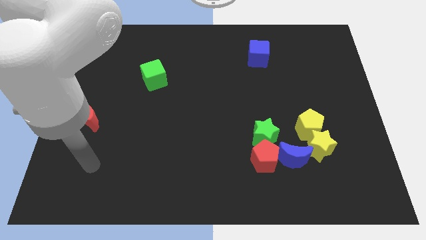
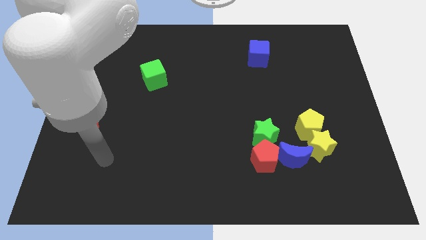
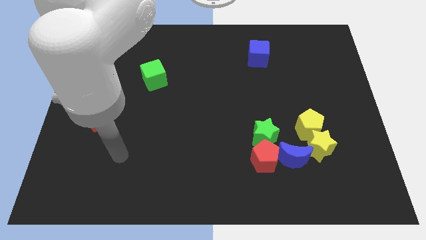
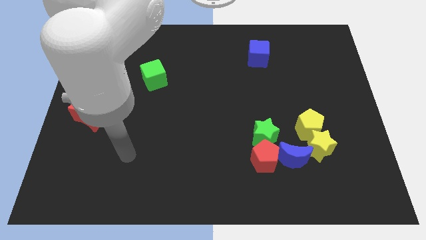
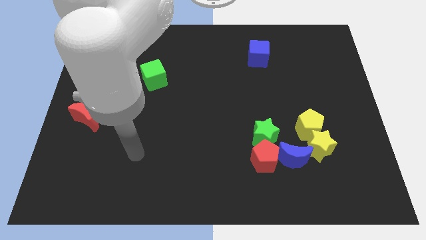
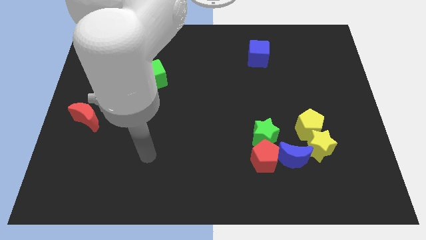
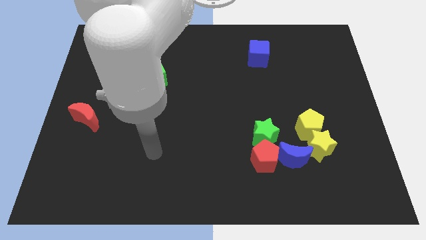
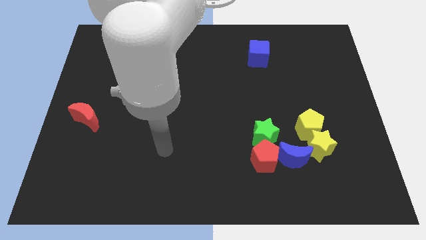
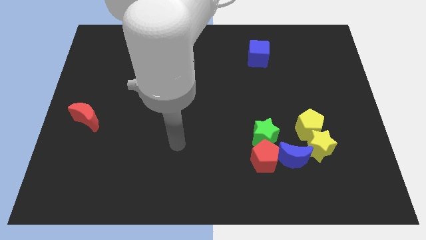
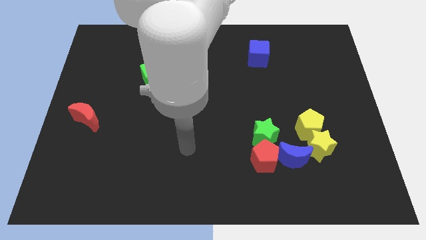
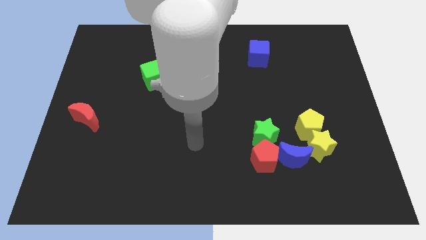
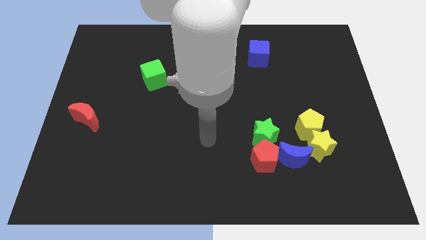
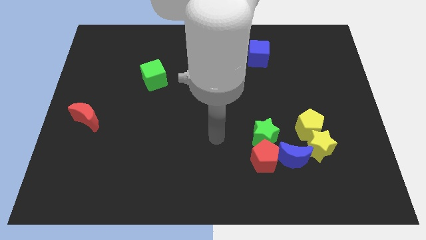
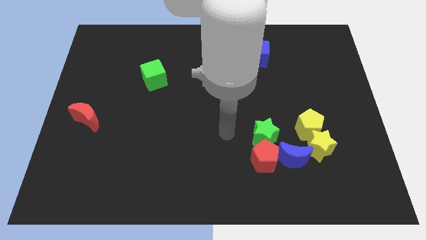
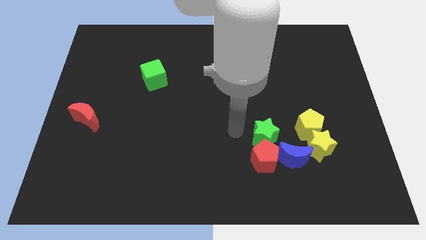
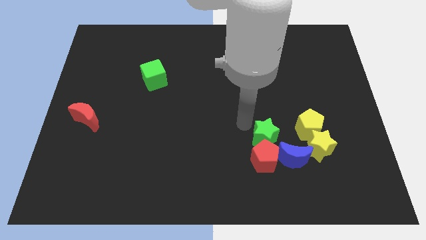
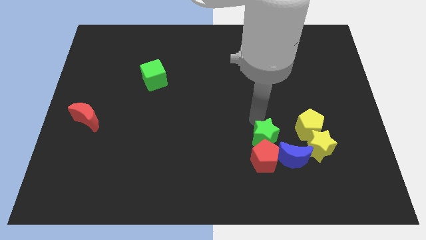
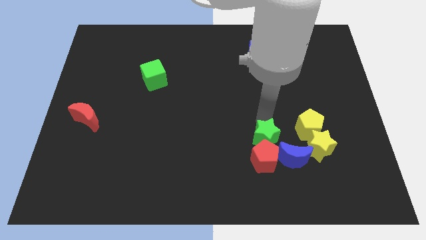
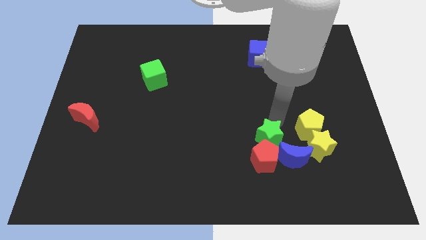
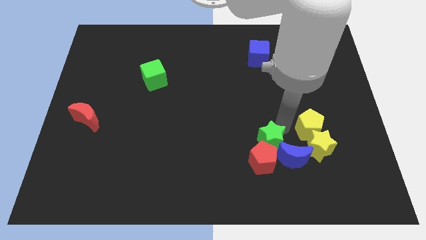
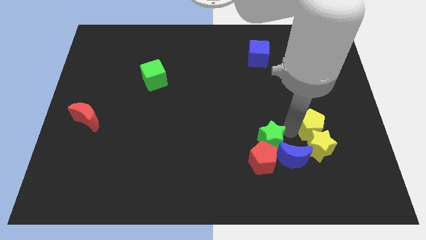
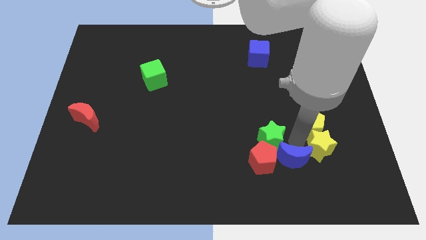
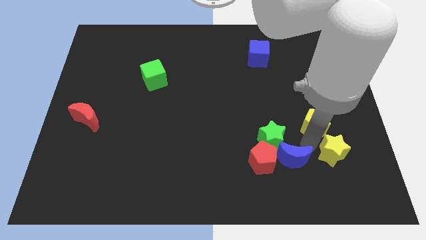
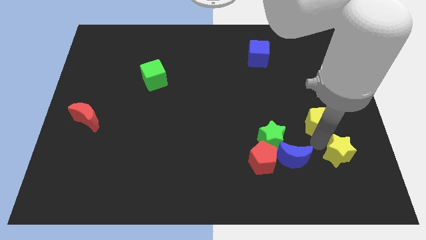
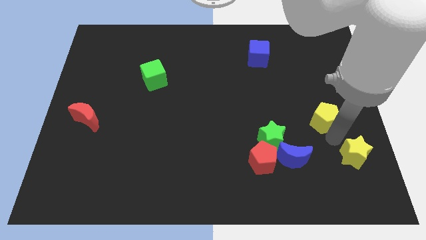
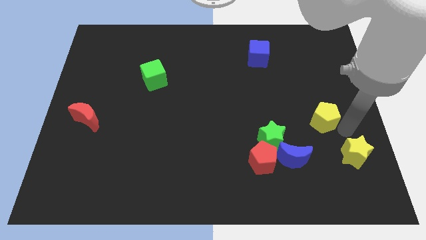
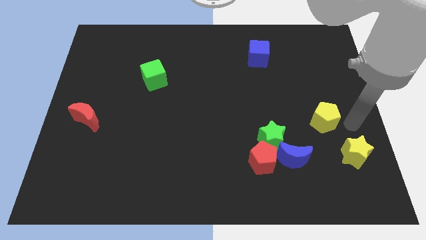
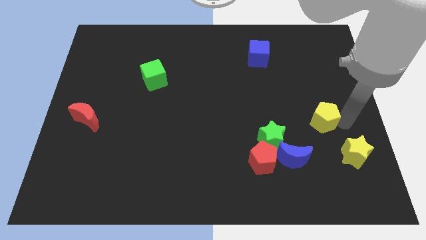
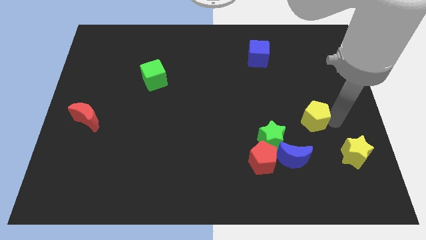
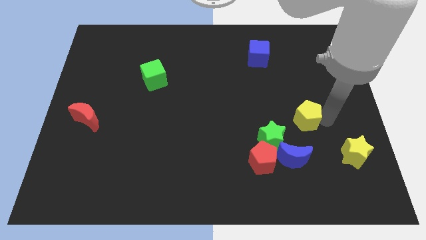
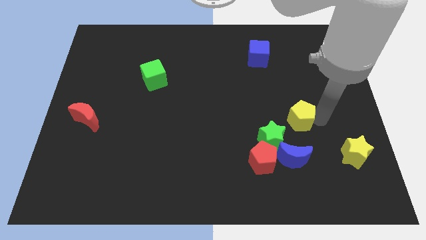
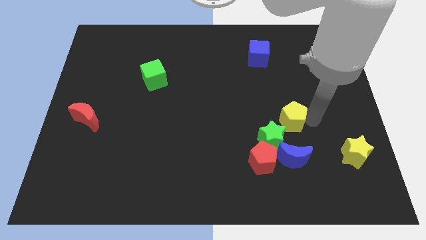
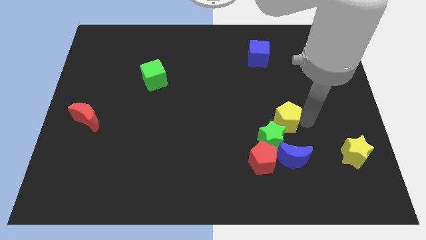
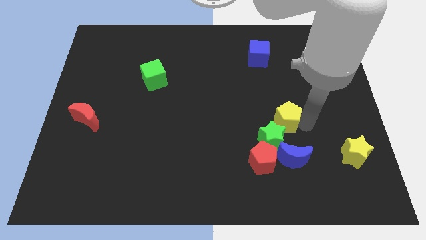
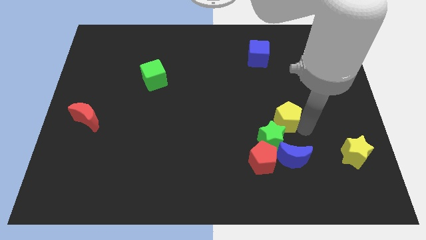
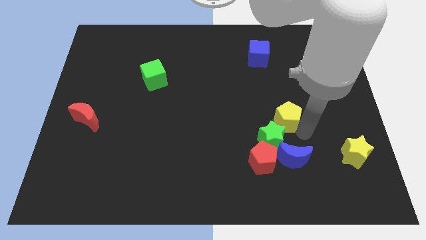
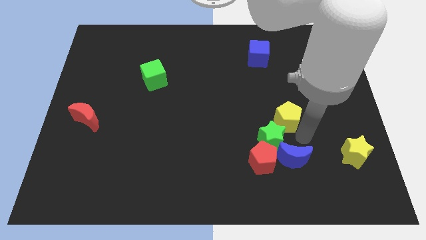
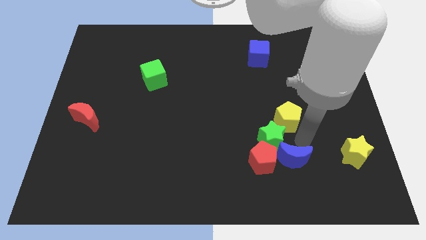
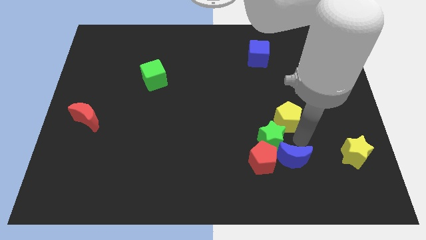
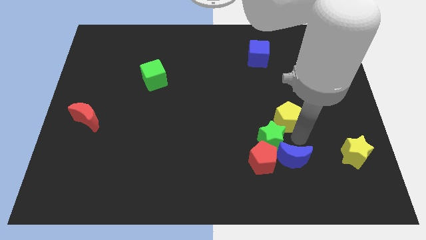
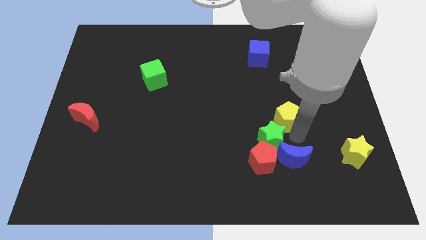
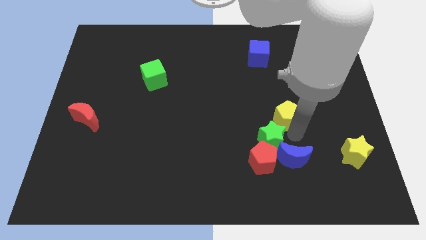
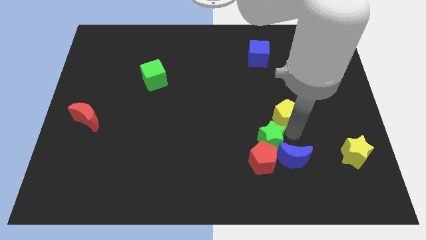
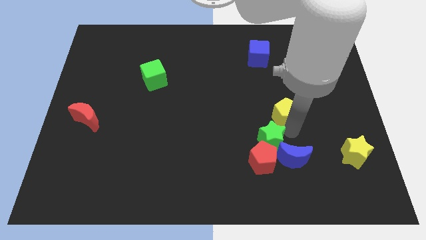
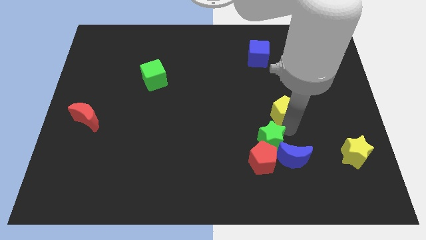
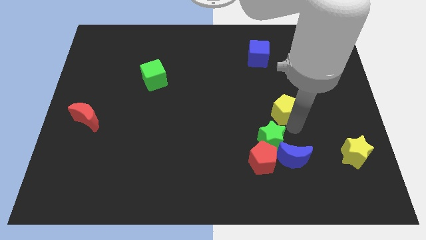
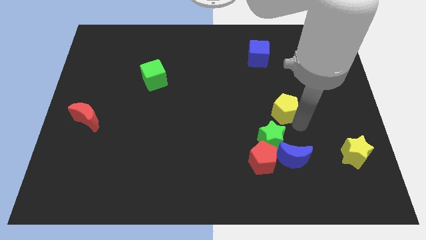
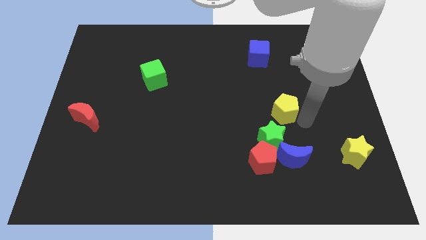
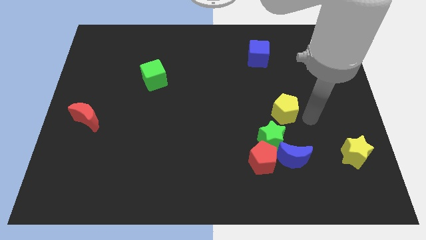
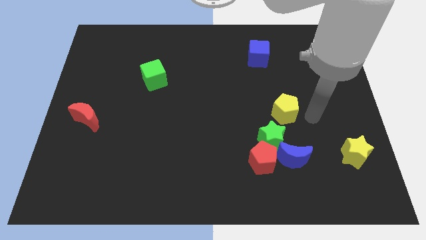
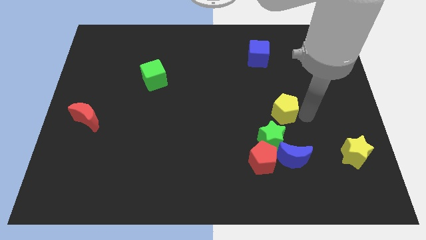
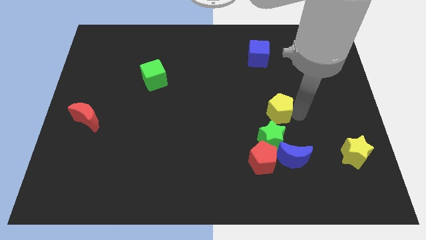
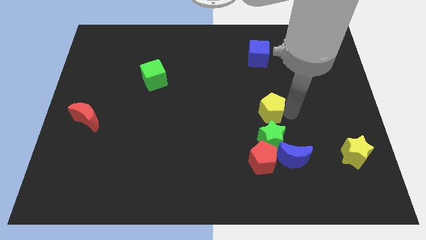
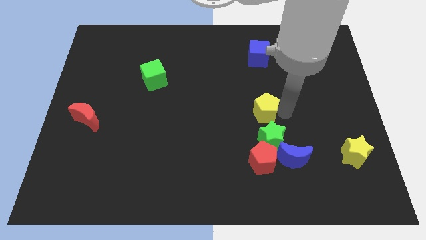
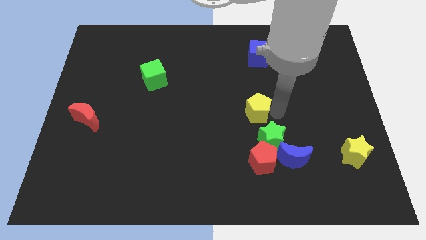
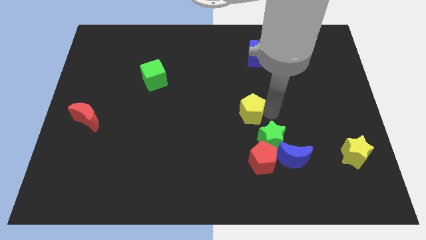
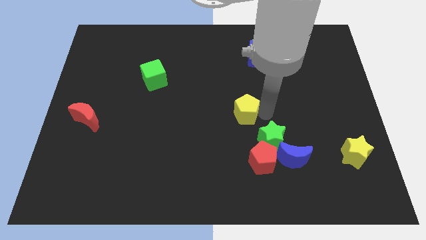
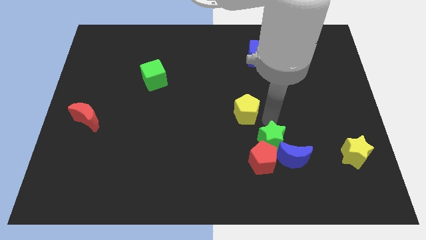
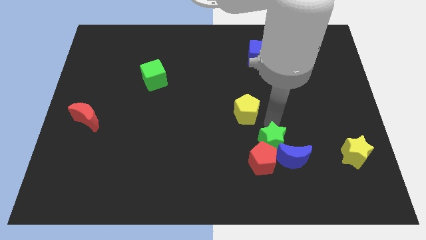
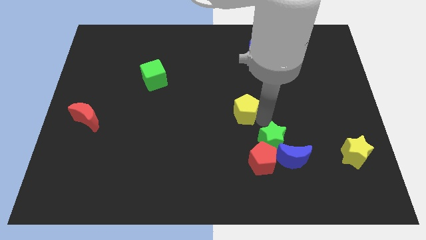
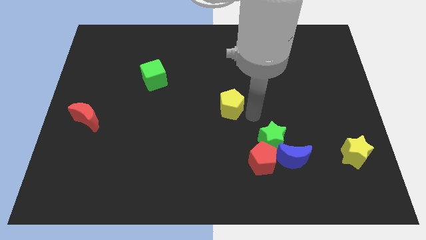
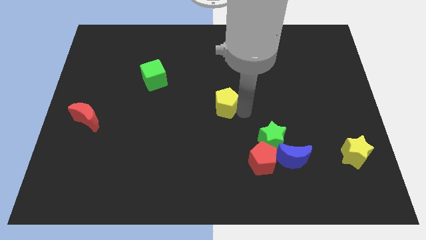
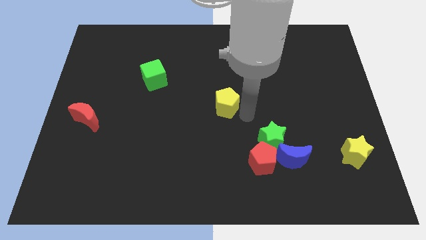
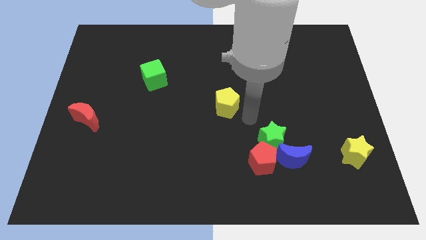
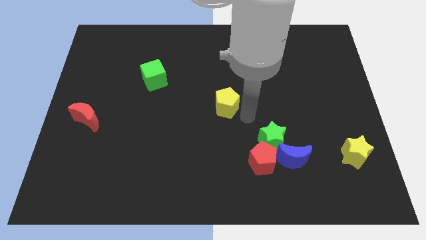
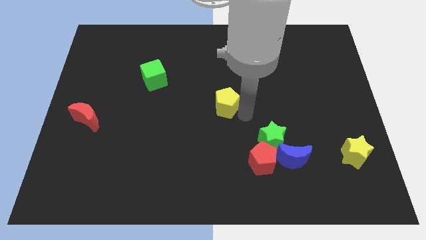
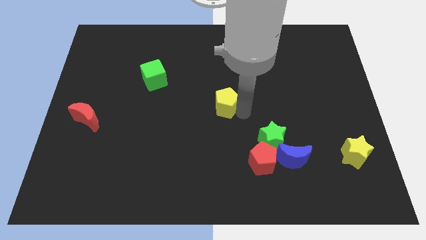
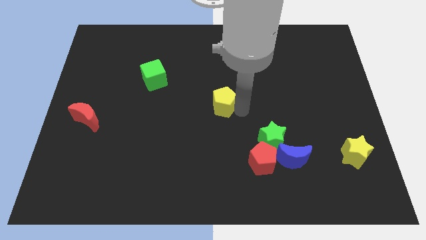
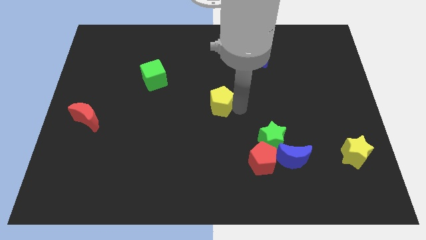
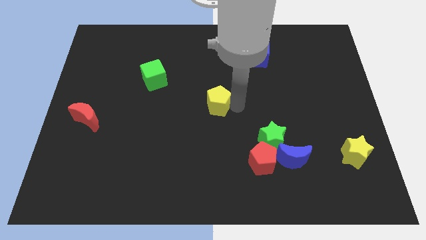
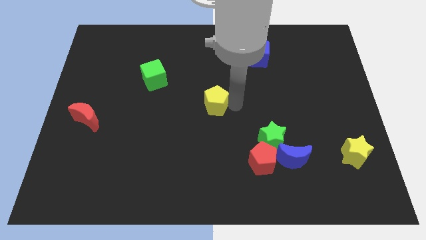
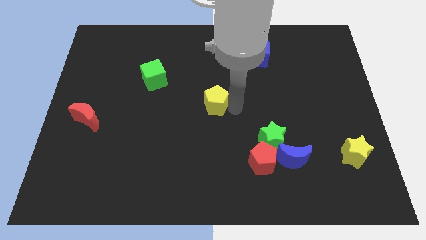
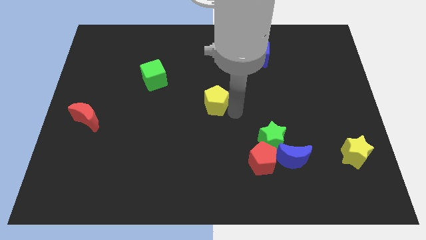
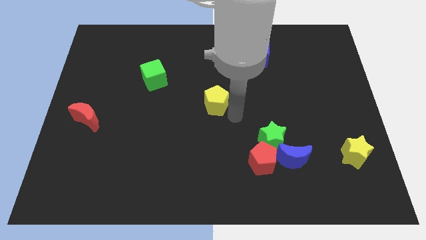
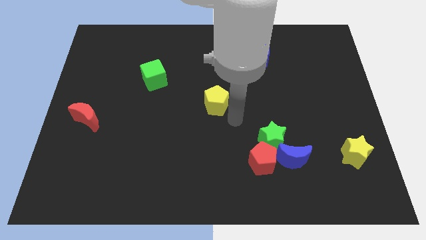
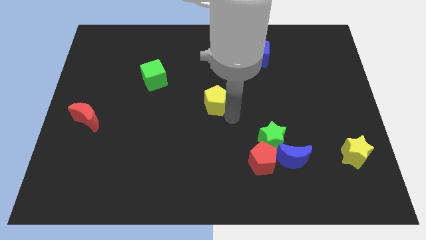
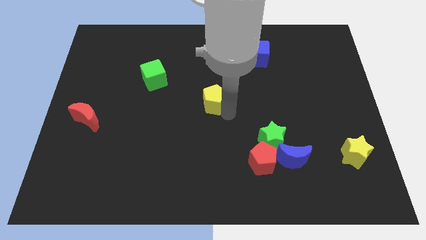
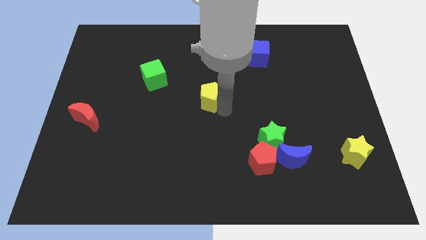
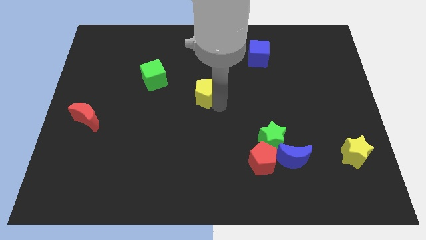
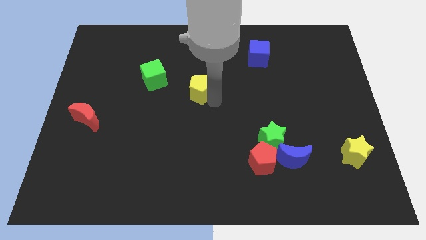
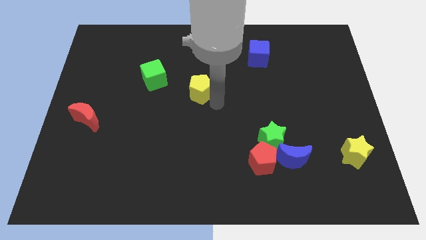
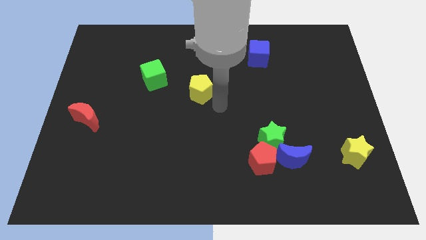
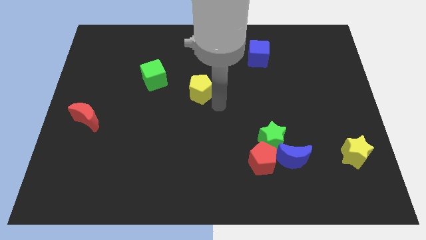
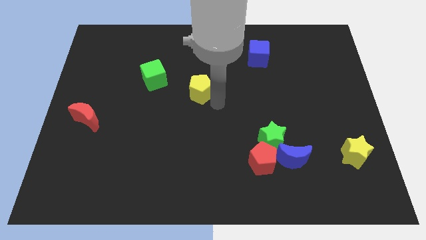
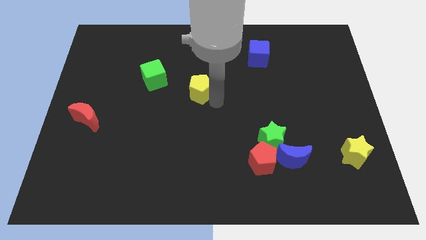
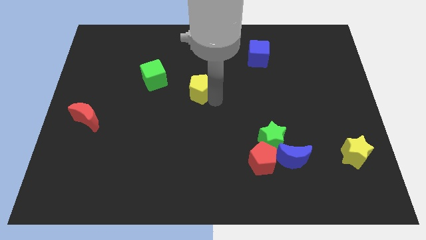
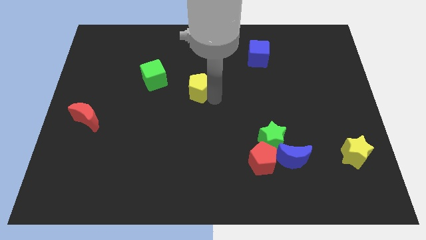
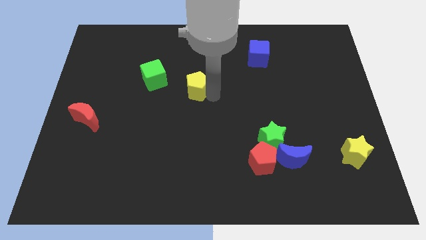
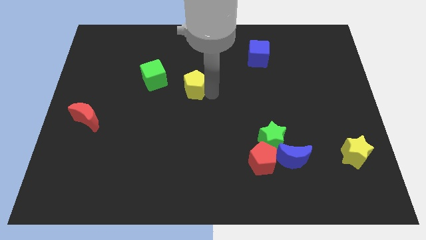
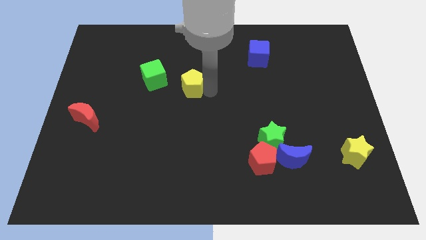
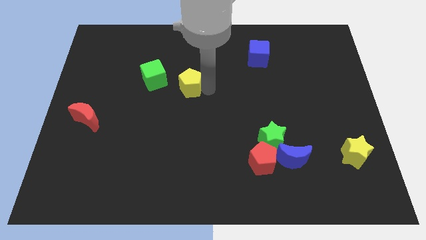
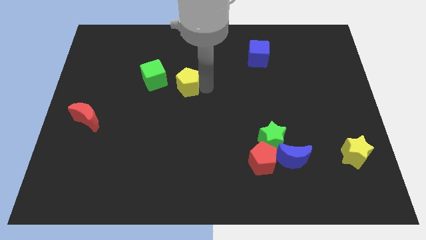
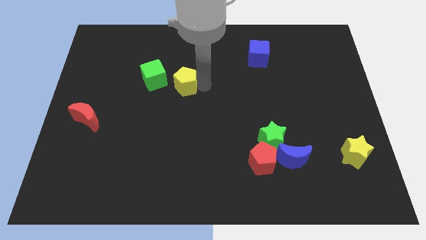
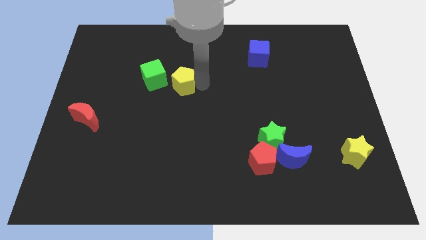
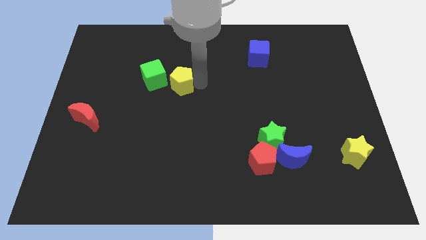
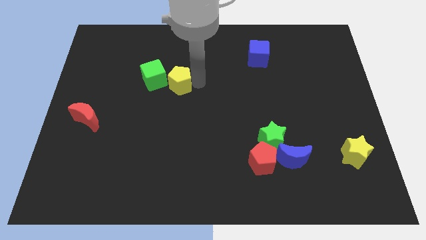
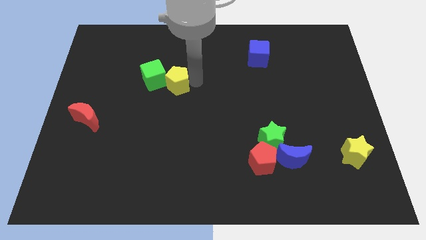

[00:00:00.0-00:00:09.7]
move the yellow pentagon towards the green cube
